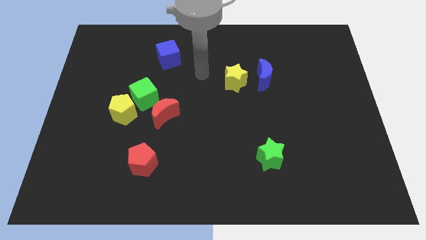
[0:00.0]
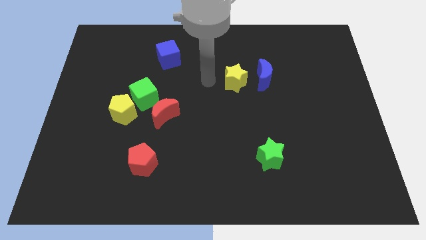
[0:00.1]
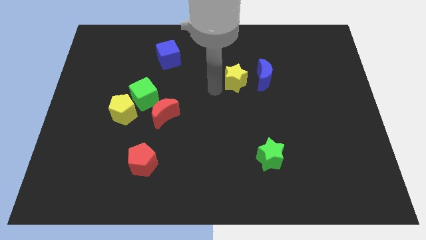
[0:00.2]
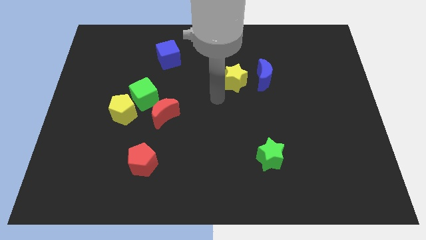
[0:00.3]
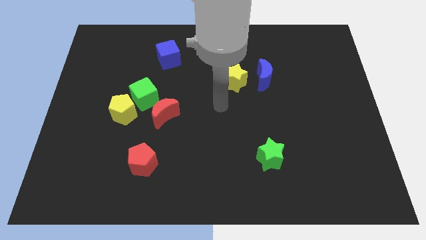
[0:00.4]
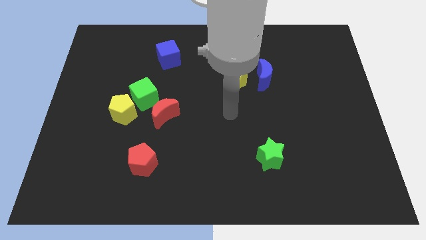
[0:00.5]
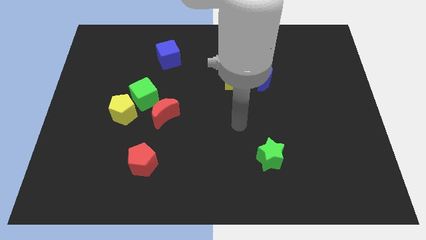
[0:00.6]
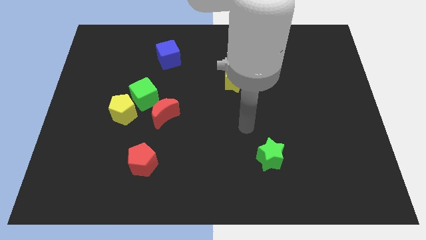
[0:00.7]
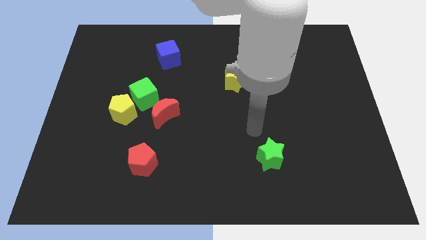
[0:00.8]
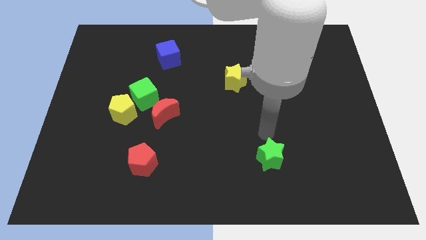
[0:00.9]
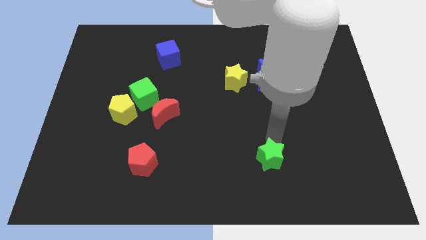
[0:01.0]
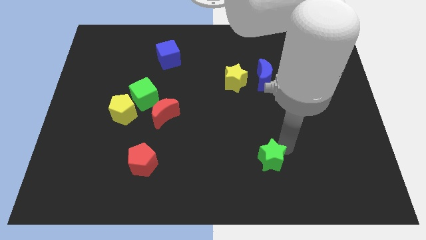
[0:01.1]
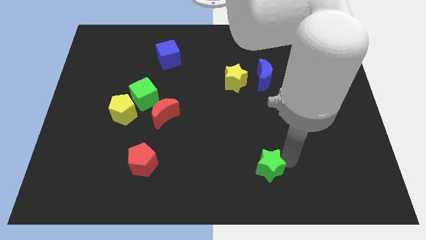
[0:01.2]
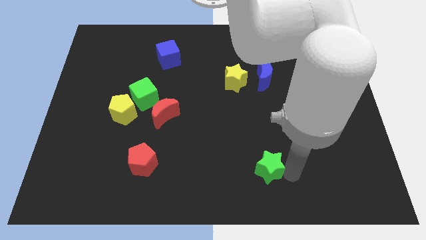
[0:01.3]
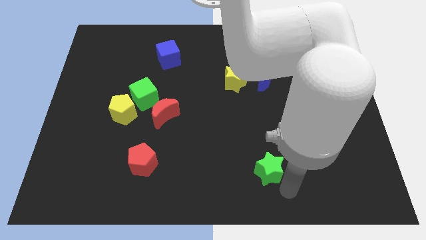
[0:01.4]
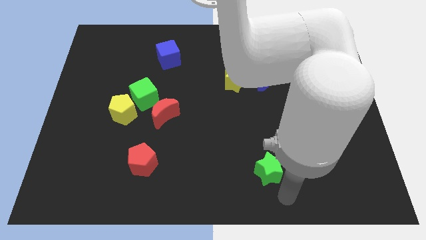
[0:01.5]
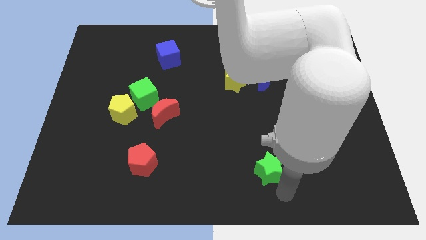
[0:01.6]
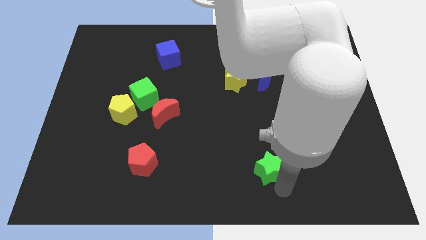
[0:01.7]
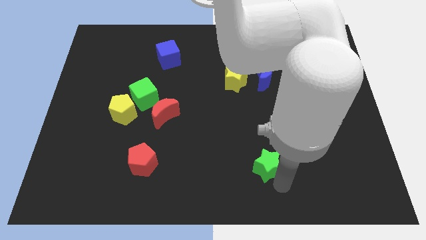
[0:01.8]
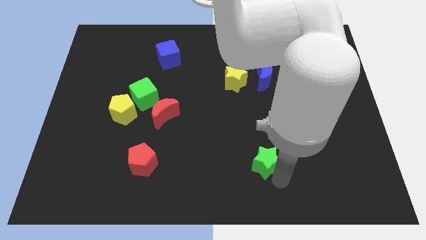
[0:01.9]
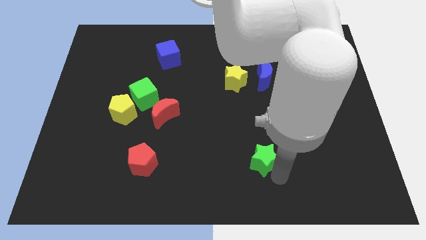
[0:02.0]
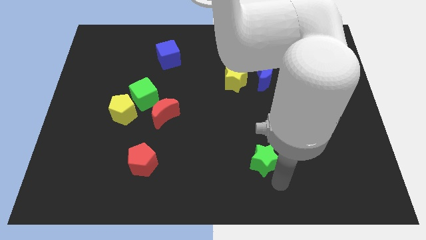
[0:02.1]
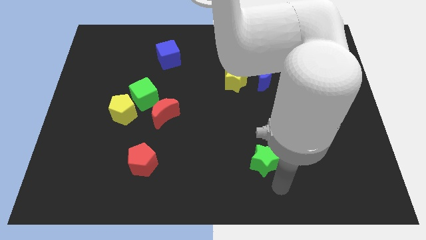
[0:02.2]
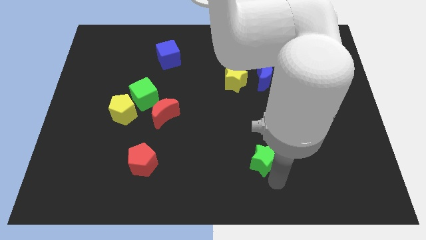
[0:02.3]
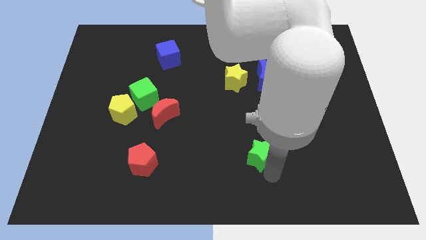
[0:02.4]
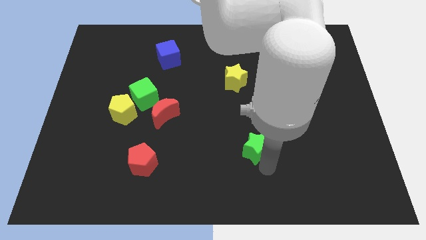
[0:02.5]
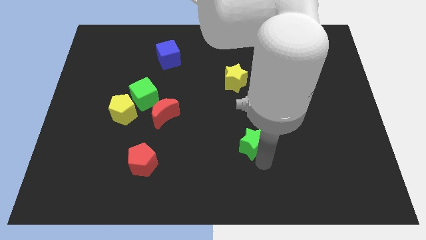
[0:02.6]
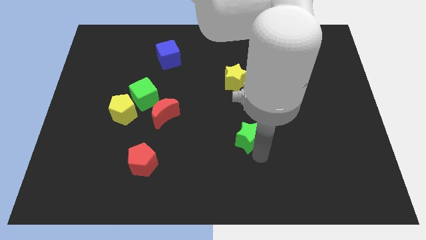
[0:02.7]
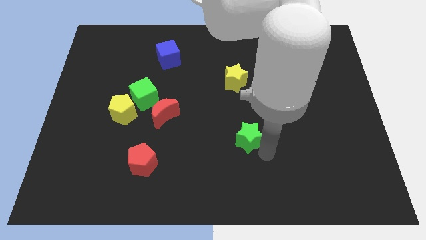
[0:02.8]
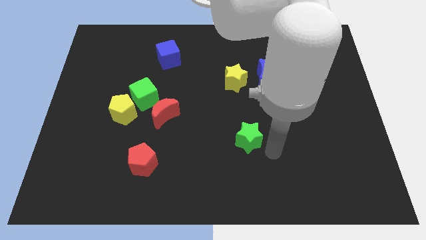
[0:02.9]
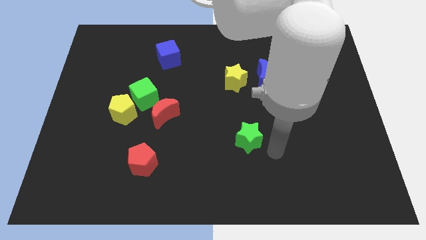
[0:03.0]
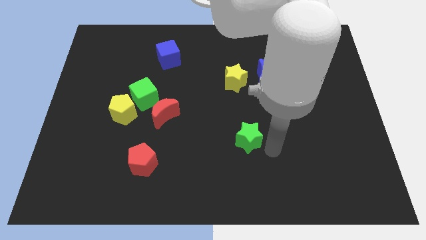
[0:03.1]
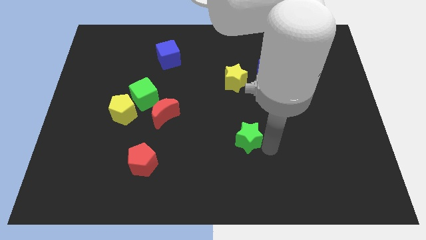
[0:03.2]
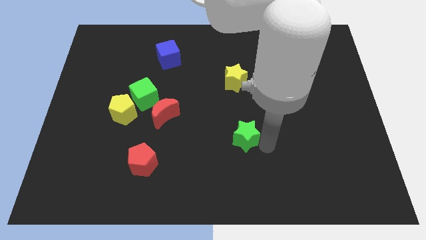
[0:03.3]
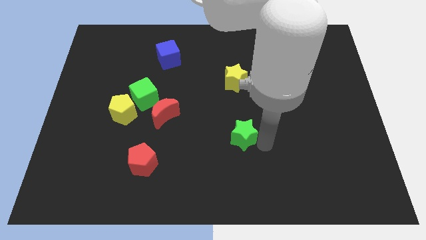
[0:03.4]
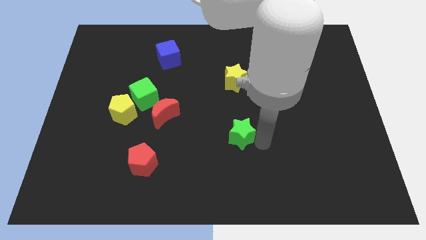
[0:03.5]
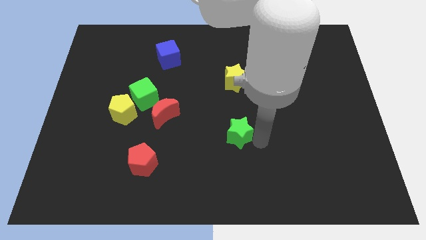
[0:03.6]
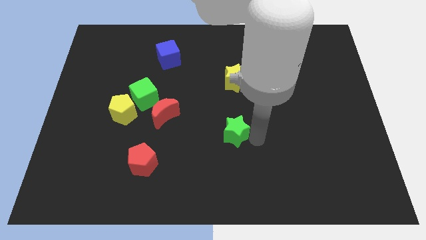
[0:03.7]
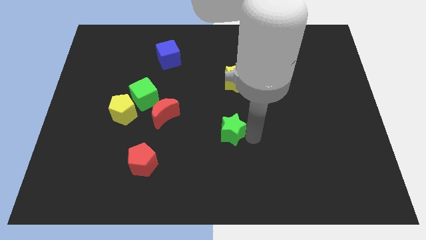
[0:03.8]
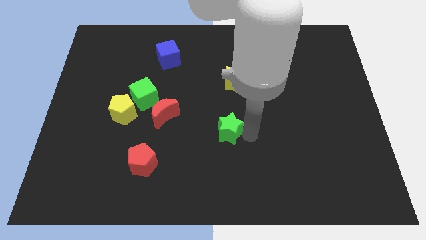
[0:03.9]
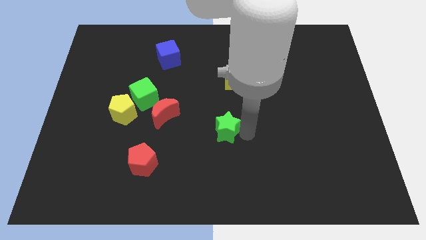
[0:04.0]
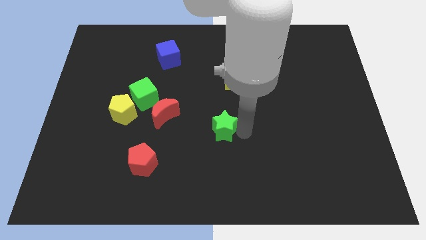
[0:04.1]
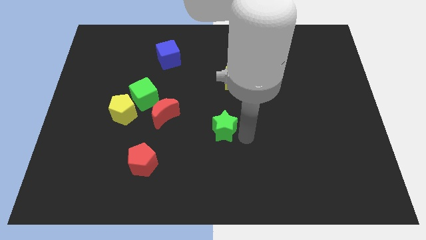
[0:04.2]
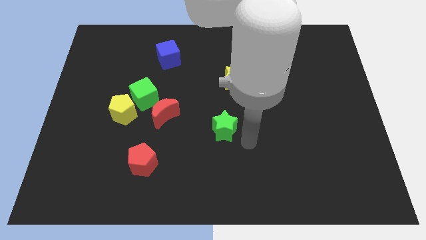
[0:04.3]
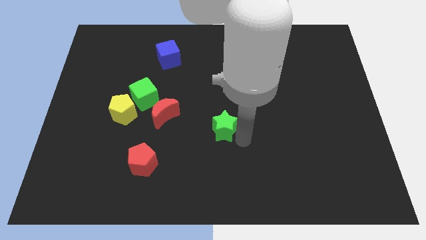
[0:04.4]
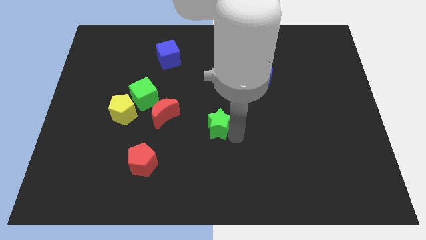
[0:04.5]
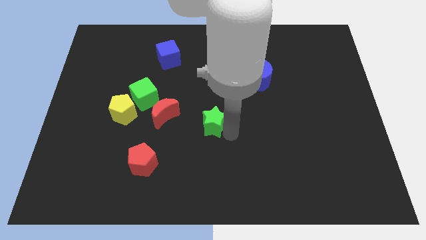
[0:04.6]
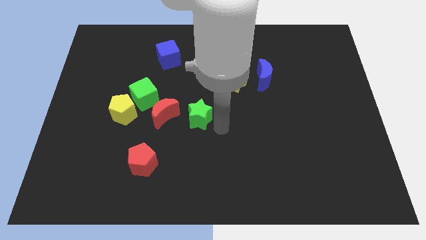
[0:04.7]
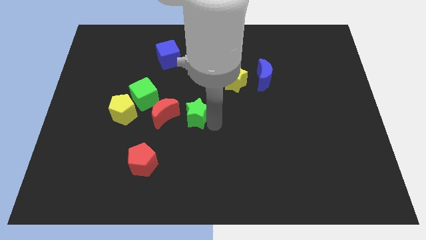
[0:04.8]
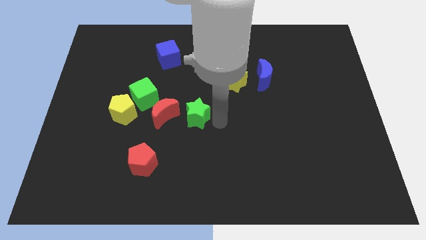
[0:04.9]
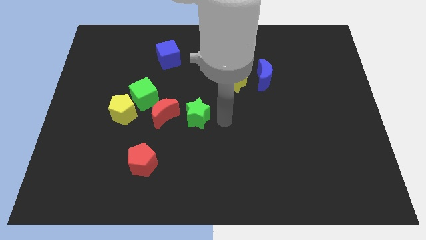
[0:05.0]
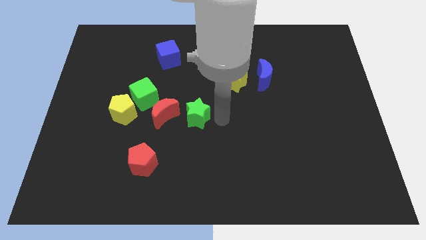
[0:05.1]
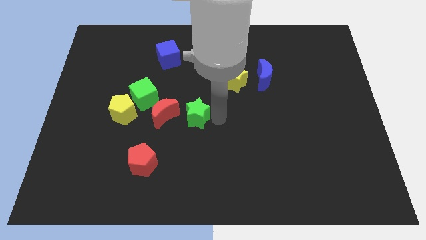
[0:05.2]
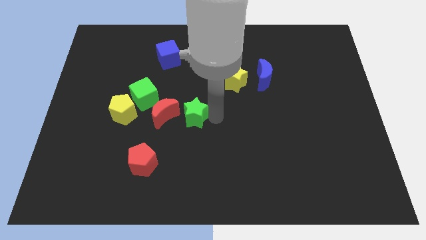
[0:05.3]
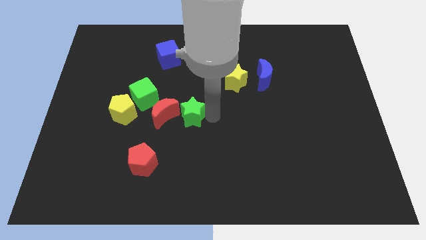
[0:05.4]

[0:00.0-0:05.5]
put the green star to the right side of the yellow pentagon

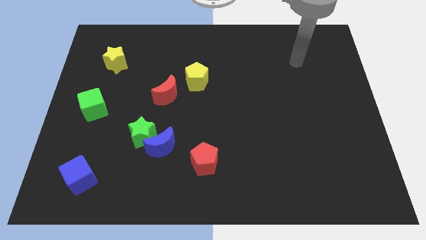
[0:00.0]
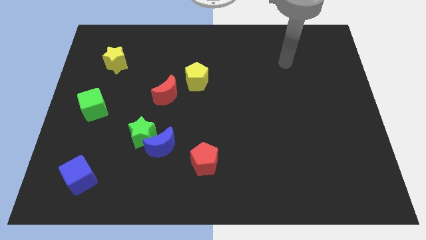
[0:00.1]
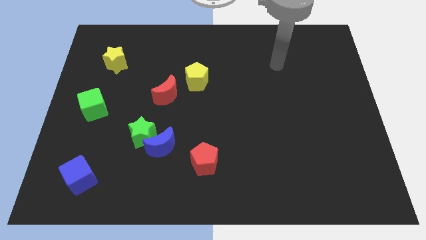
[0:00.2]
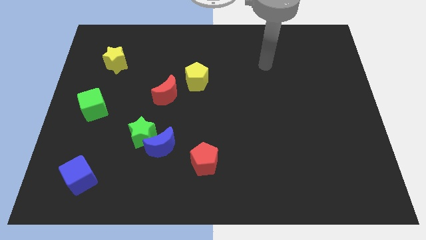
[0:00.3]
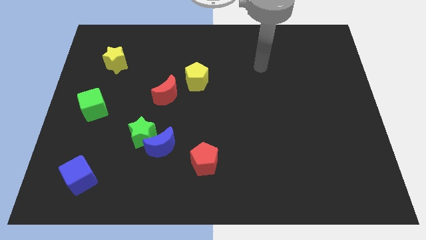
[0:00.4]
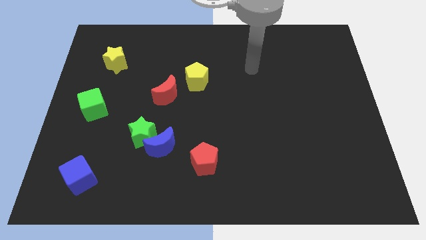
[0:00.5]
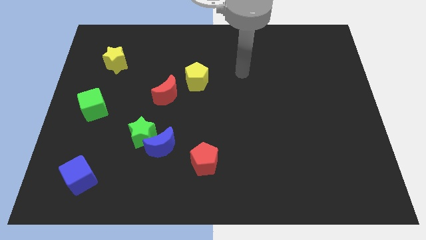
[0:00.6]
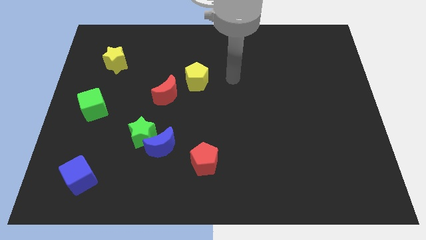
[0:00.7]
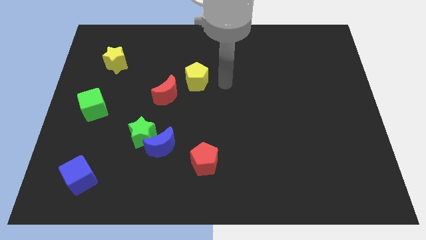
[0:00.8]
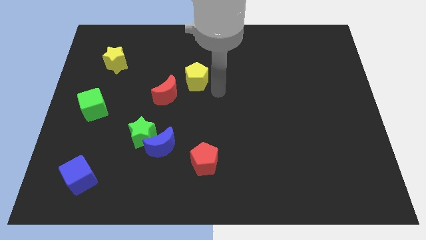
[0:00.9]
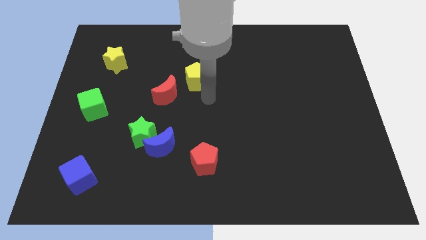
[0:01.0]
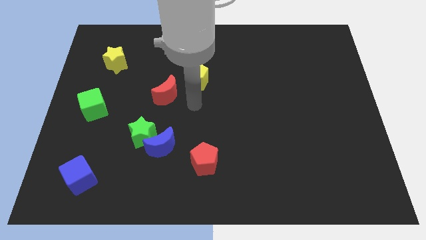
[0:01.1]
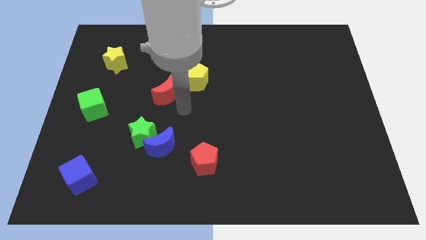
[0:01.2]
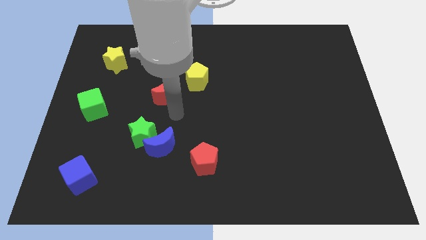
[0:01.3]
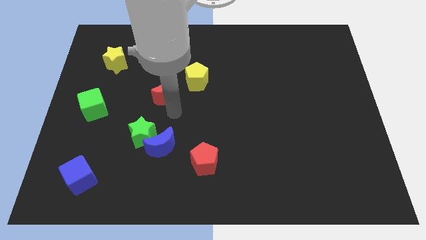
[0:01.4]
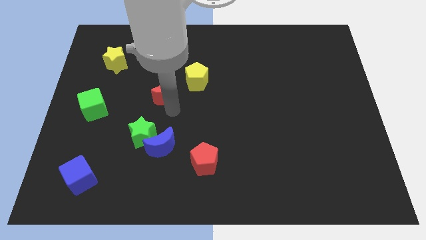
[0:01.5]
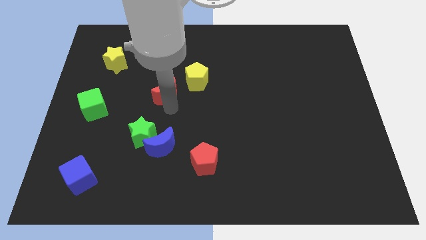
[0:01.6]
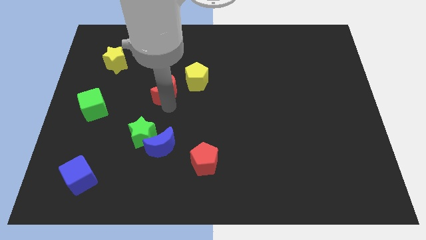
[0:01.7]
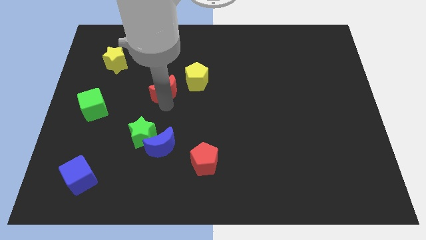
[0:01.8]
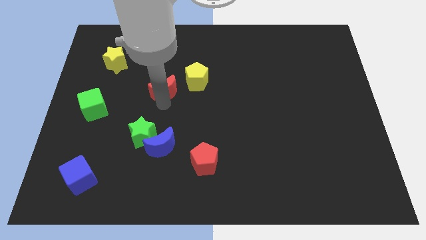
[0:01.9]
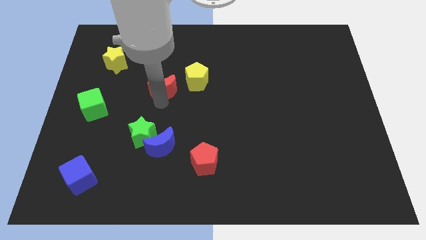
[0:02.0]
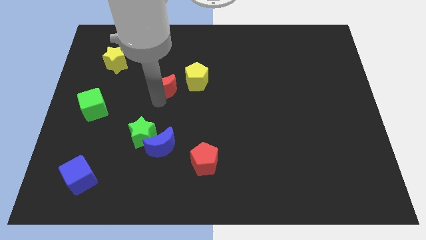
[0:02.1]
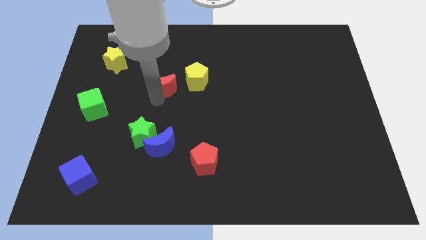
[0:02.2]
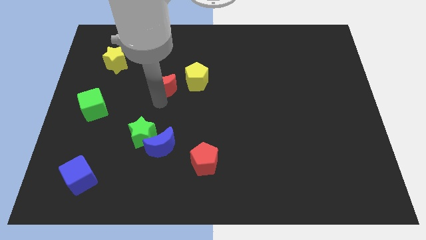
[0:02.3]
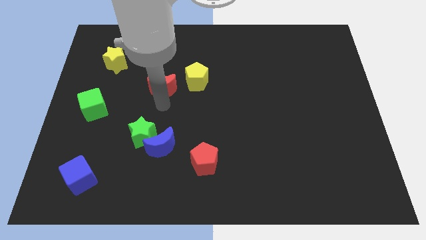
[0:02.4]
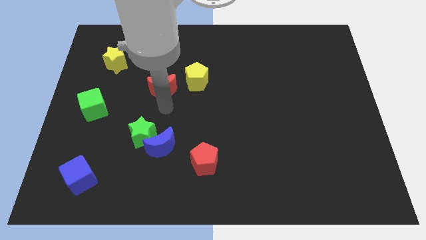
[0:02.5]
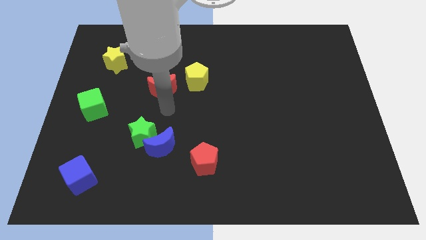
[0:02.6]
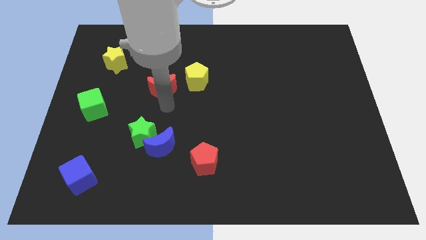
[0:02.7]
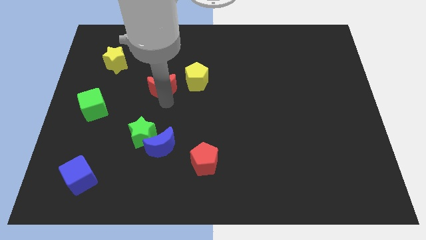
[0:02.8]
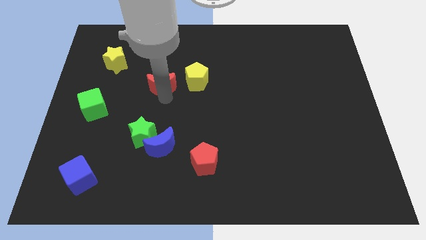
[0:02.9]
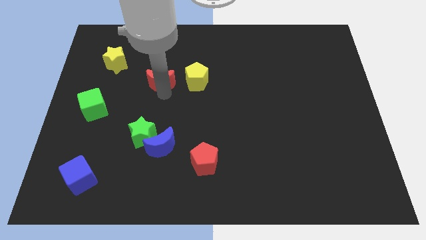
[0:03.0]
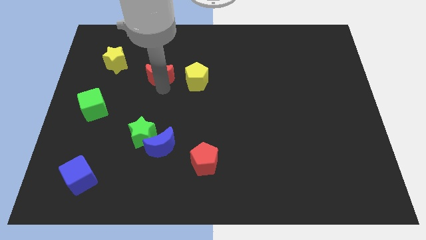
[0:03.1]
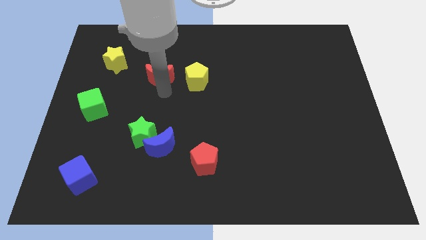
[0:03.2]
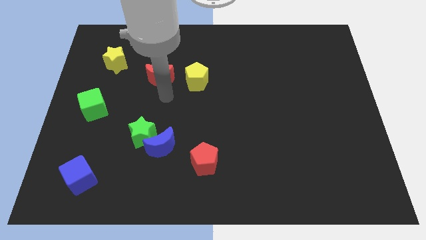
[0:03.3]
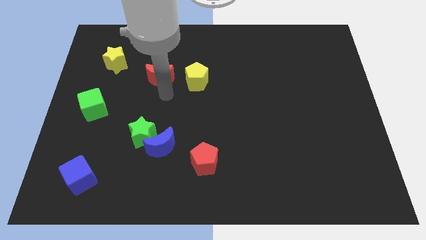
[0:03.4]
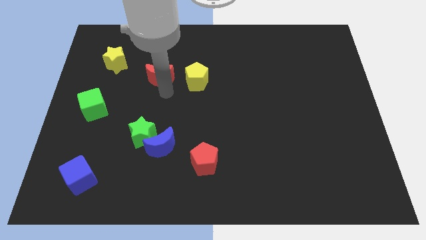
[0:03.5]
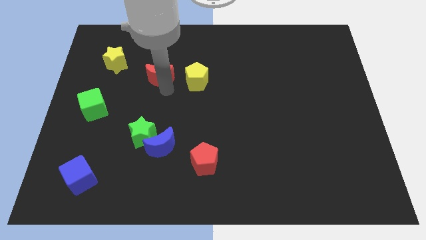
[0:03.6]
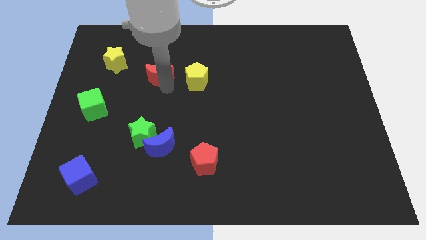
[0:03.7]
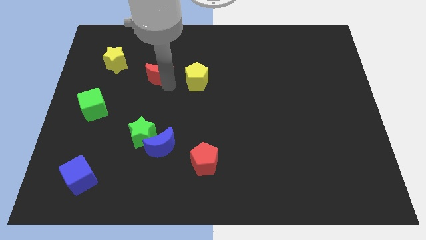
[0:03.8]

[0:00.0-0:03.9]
move the red moon right of the yellow star
